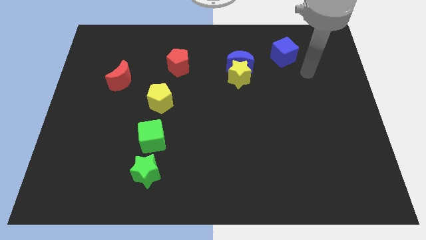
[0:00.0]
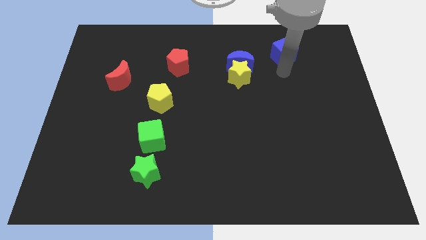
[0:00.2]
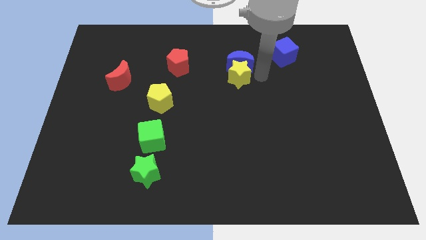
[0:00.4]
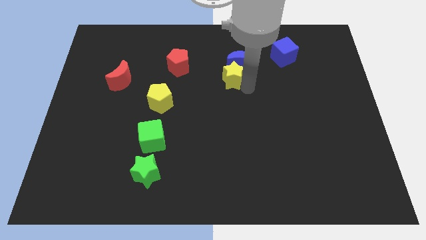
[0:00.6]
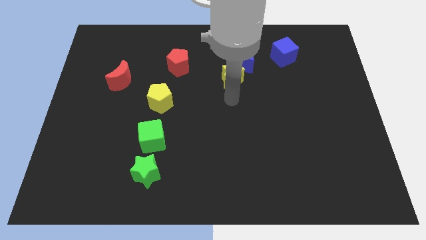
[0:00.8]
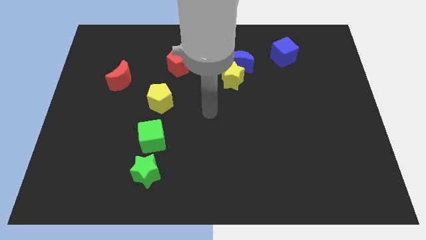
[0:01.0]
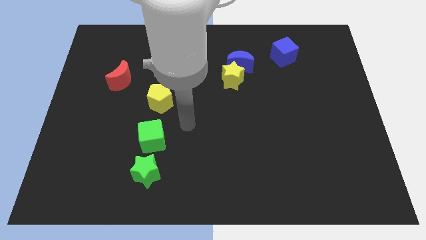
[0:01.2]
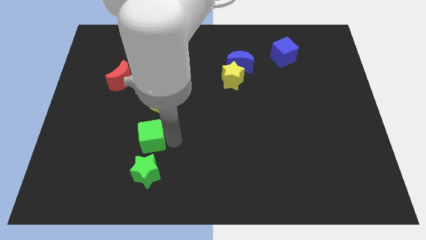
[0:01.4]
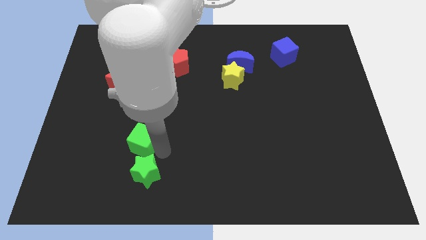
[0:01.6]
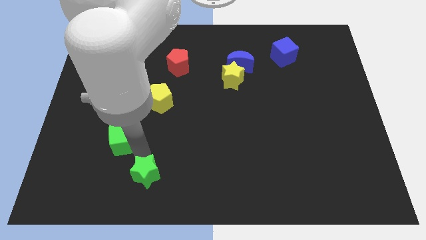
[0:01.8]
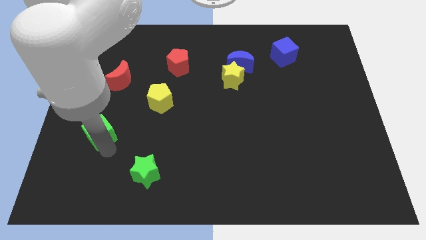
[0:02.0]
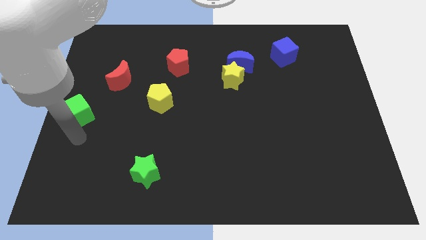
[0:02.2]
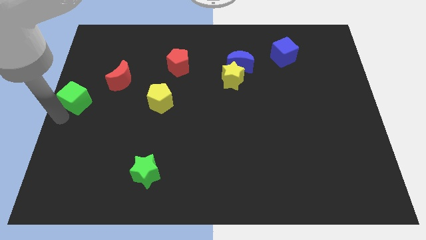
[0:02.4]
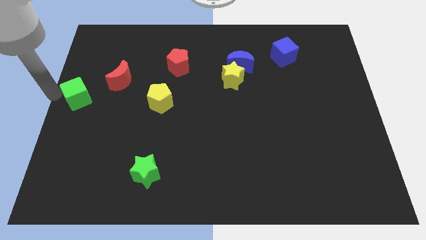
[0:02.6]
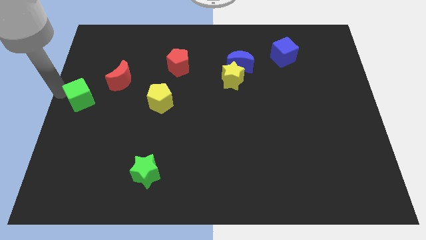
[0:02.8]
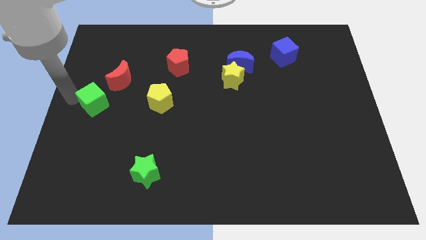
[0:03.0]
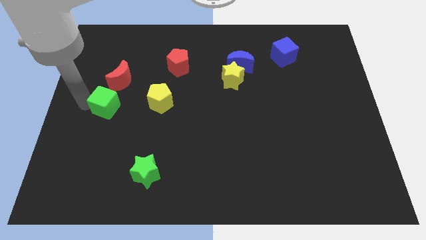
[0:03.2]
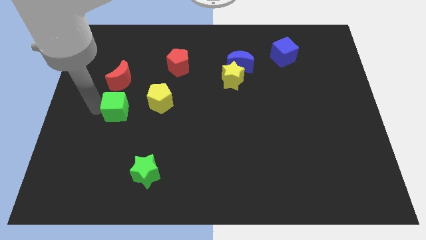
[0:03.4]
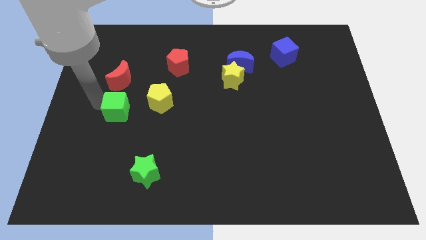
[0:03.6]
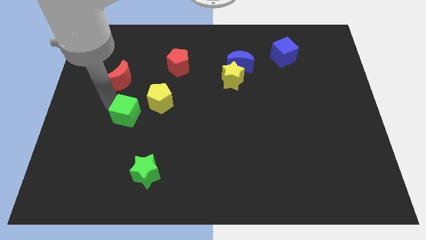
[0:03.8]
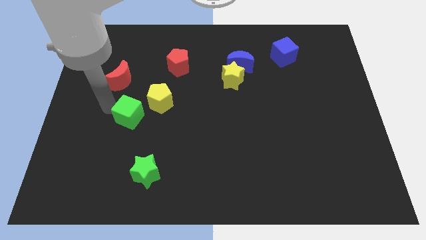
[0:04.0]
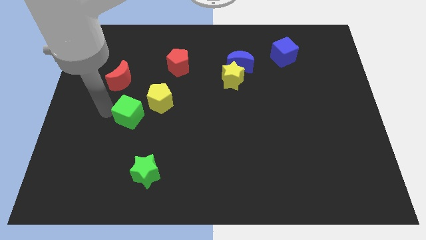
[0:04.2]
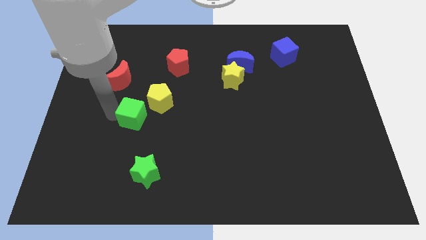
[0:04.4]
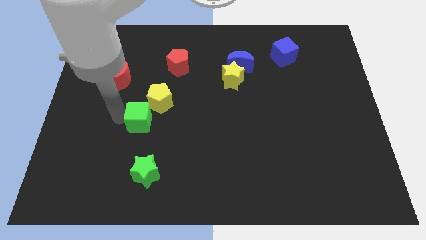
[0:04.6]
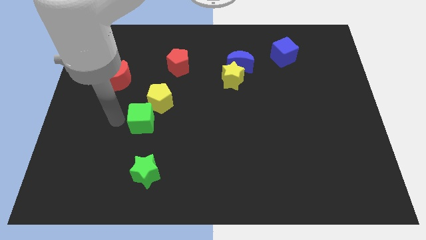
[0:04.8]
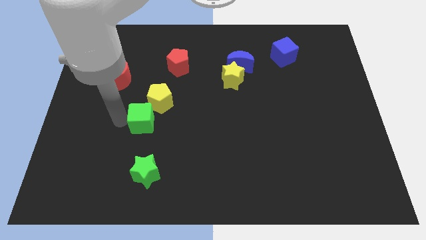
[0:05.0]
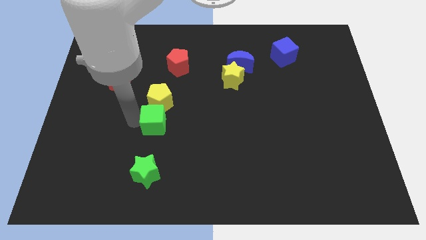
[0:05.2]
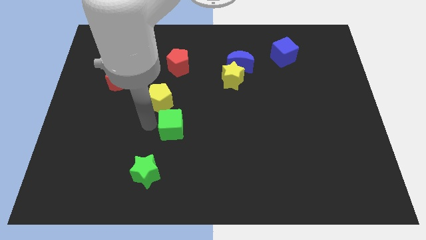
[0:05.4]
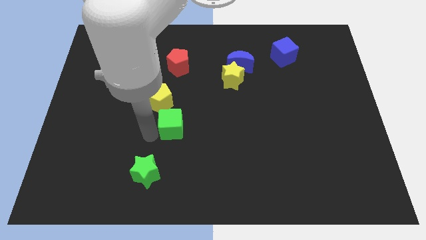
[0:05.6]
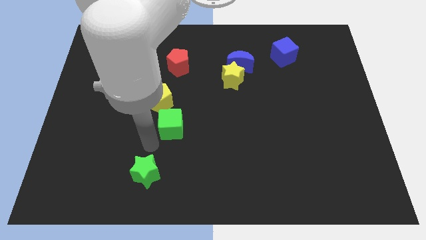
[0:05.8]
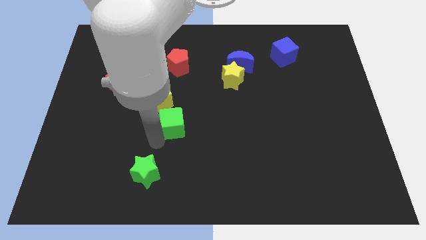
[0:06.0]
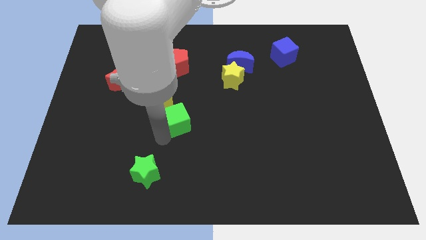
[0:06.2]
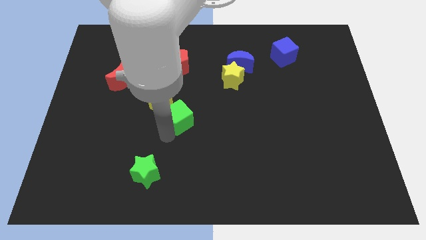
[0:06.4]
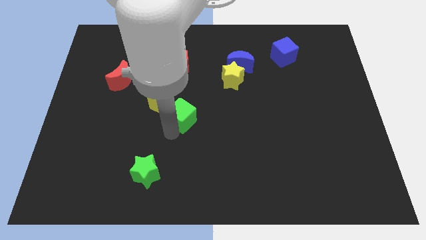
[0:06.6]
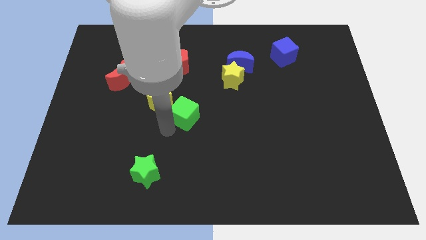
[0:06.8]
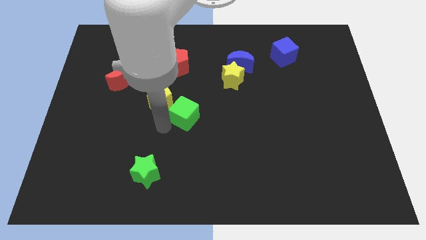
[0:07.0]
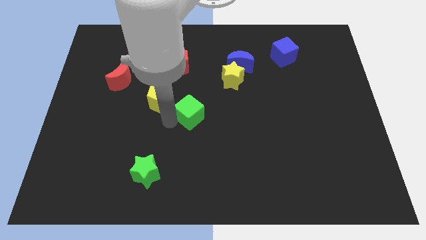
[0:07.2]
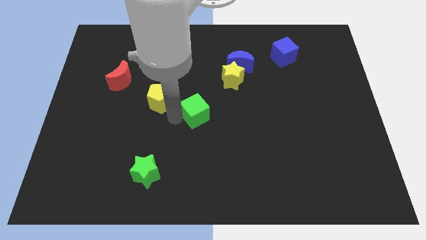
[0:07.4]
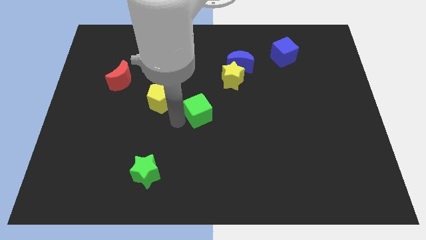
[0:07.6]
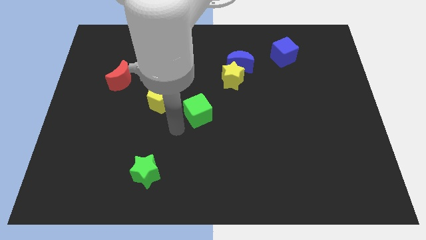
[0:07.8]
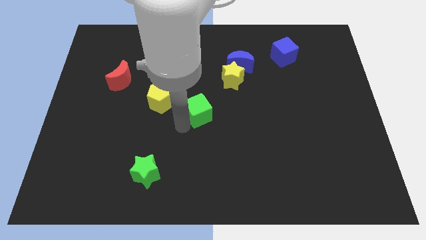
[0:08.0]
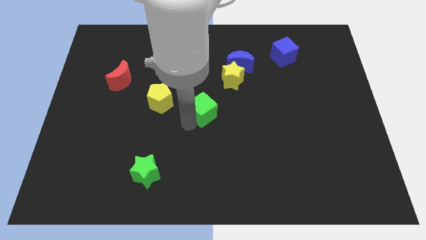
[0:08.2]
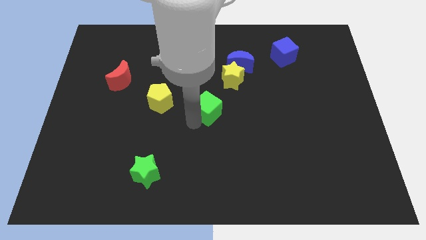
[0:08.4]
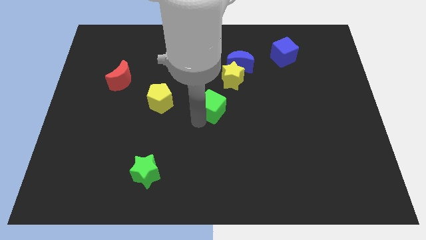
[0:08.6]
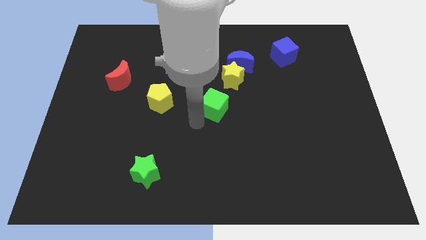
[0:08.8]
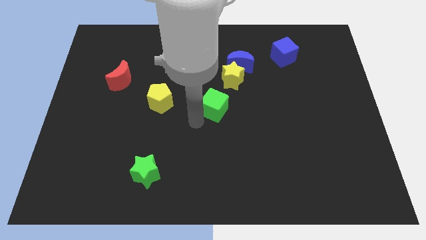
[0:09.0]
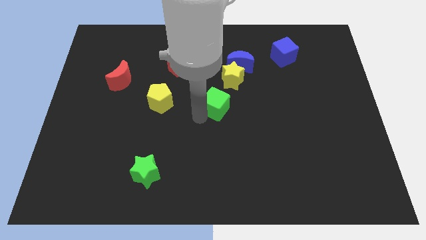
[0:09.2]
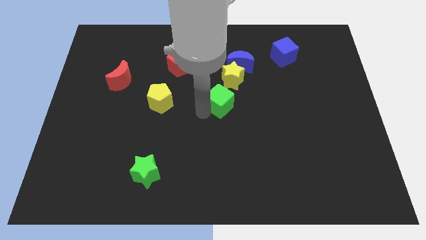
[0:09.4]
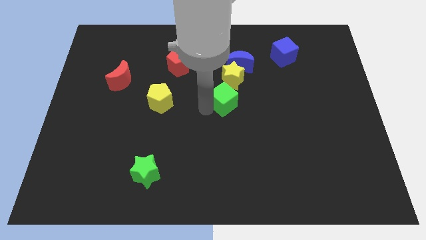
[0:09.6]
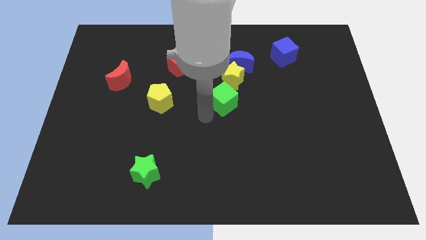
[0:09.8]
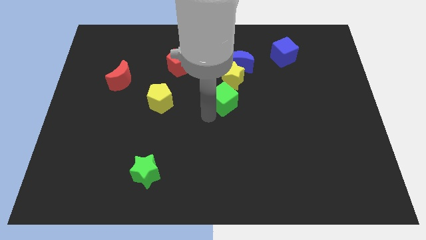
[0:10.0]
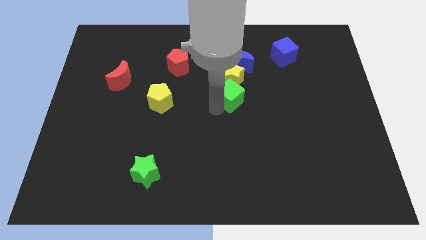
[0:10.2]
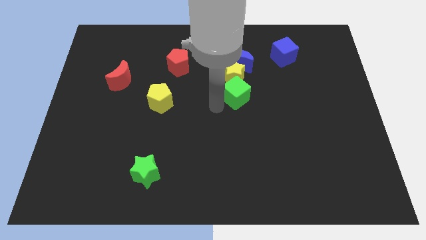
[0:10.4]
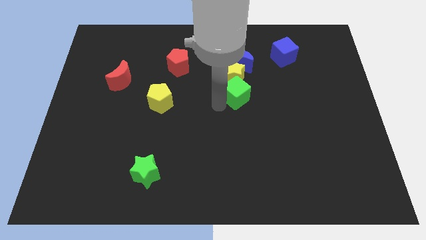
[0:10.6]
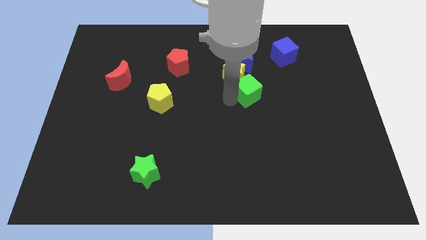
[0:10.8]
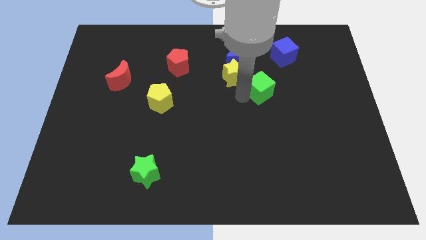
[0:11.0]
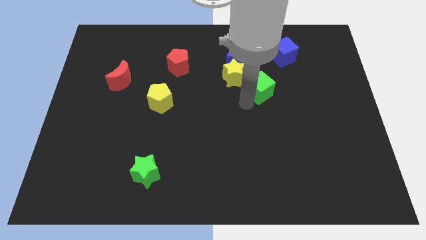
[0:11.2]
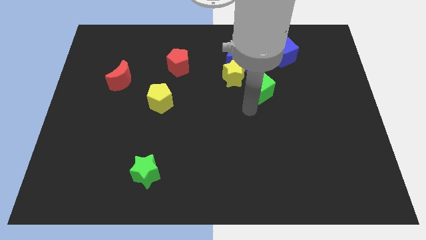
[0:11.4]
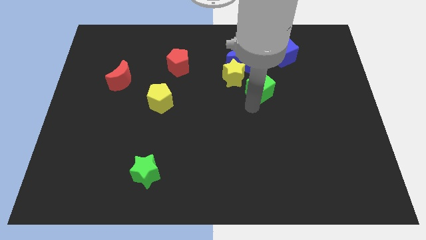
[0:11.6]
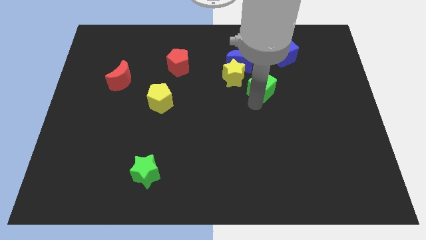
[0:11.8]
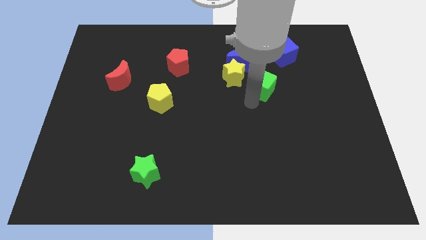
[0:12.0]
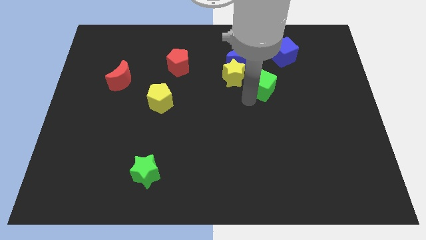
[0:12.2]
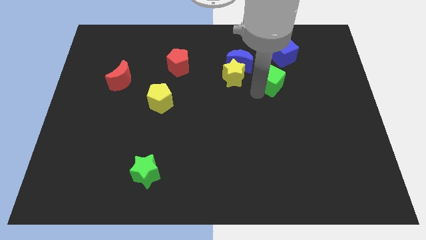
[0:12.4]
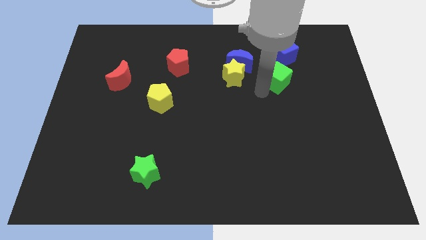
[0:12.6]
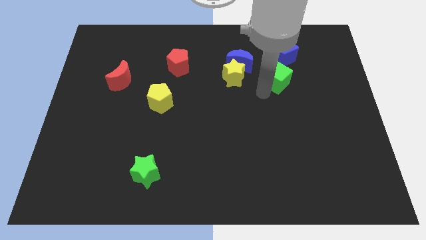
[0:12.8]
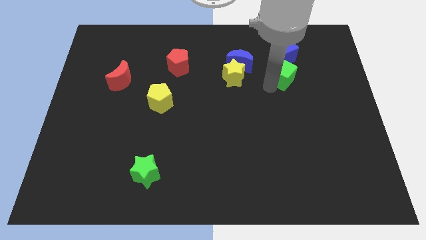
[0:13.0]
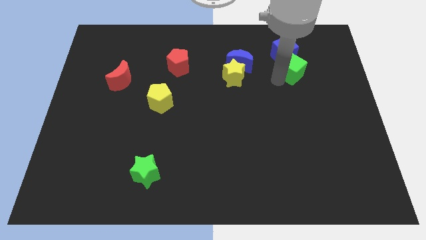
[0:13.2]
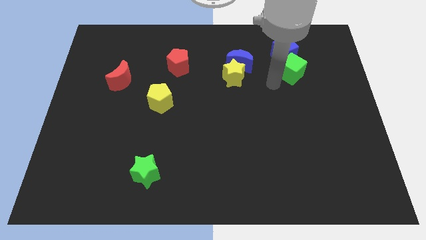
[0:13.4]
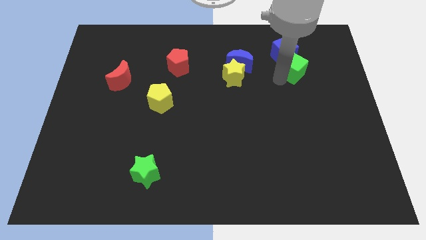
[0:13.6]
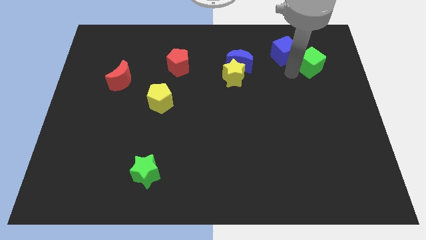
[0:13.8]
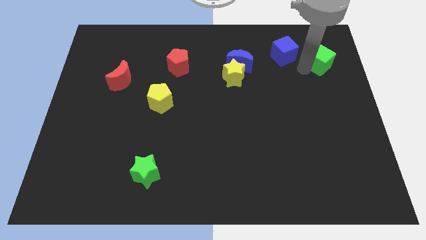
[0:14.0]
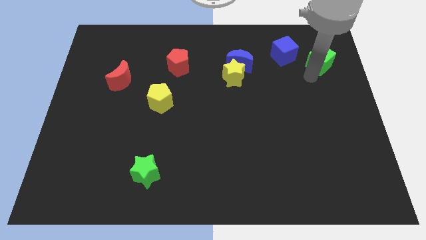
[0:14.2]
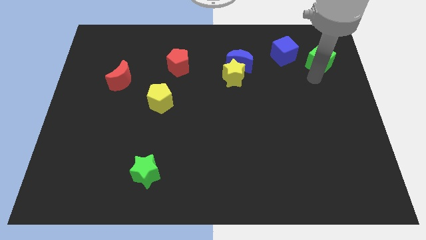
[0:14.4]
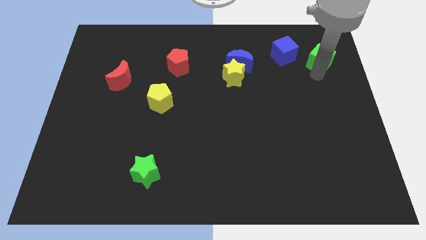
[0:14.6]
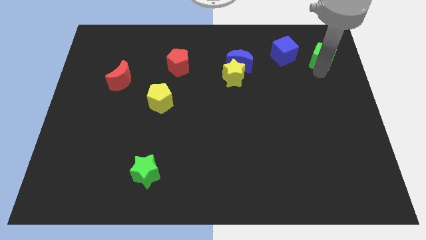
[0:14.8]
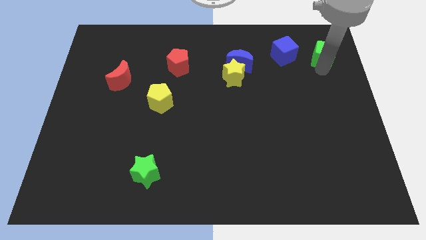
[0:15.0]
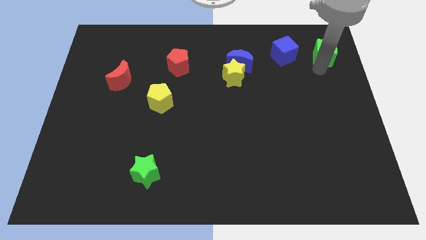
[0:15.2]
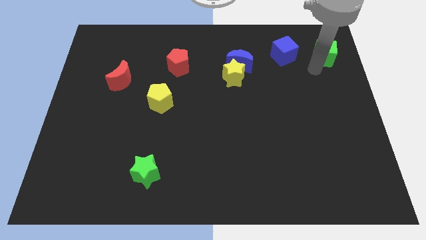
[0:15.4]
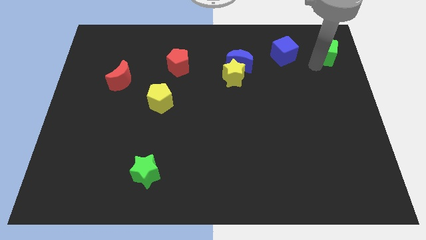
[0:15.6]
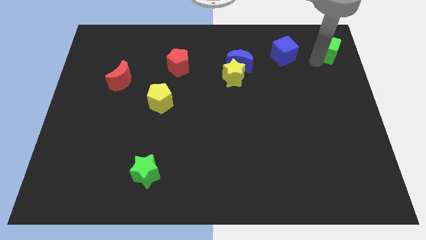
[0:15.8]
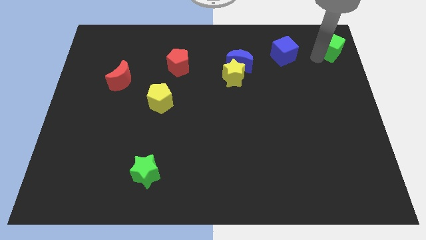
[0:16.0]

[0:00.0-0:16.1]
move the green cube to the top right corner
